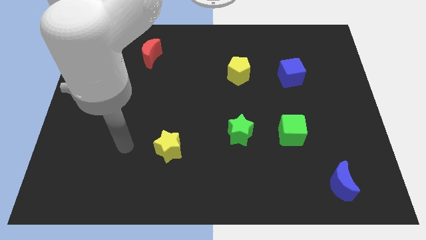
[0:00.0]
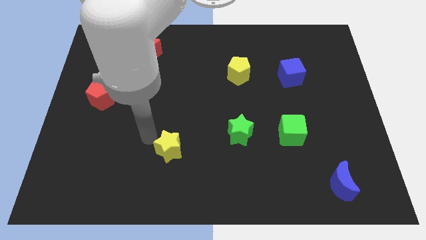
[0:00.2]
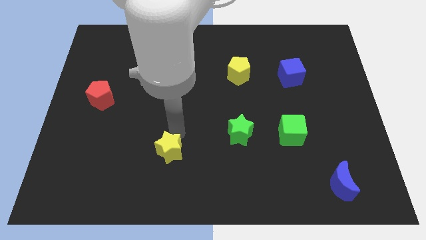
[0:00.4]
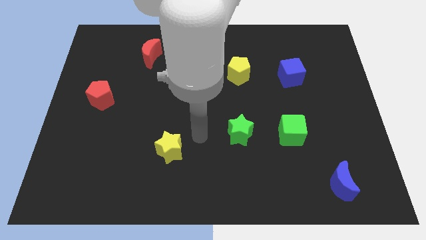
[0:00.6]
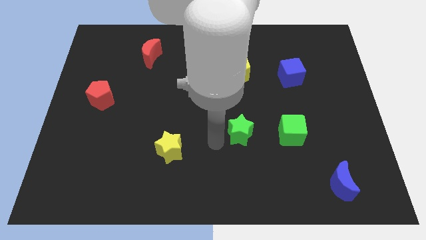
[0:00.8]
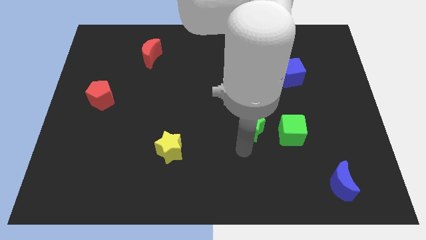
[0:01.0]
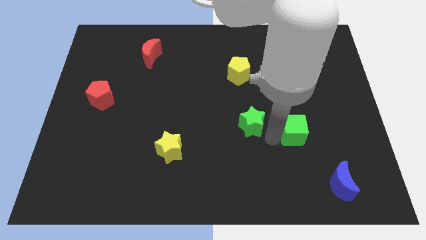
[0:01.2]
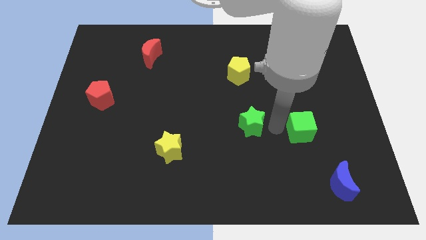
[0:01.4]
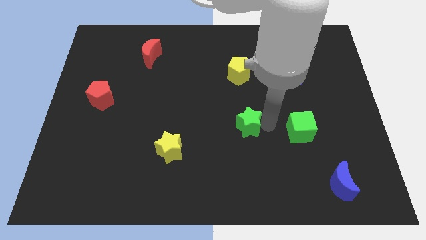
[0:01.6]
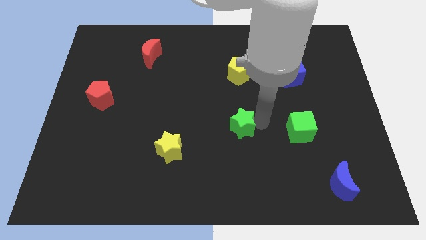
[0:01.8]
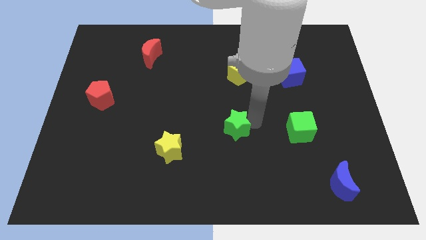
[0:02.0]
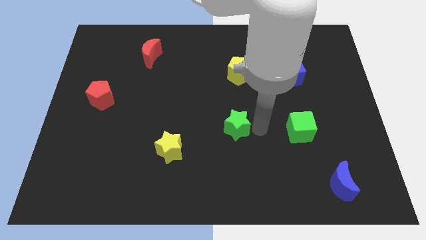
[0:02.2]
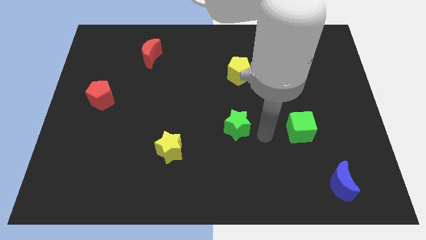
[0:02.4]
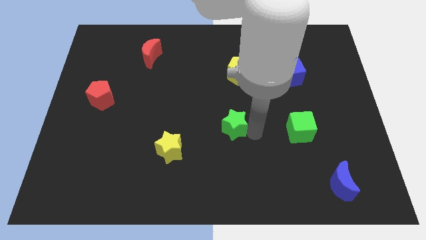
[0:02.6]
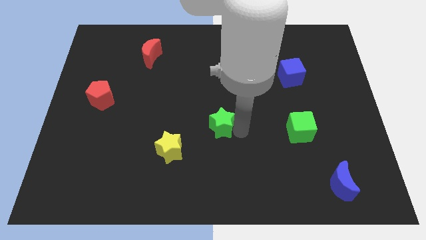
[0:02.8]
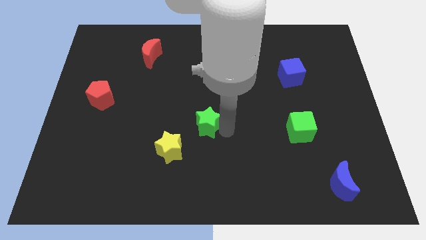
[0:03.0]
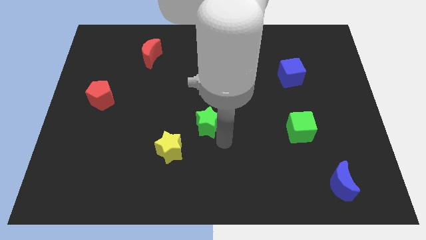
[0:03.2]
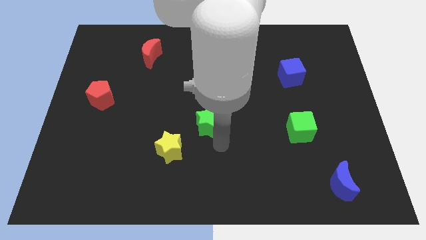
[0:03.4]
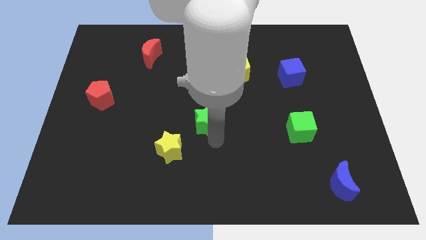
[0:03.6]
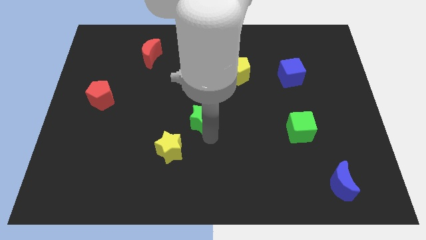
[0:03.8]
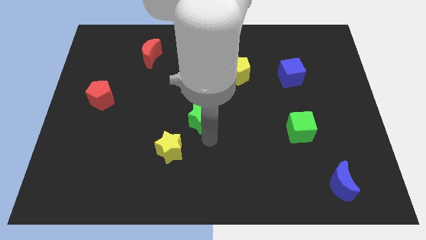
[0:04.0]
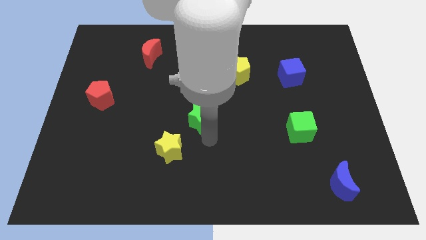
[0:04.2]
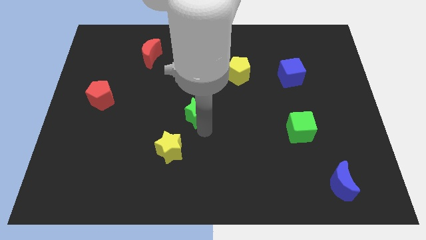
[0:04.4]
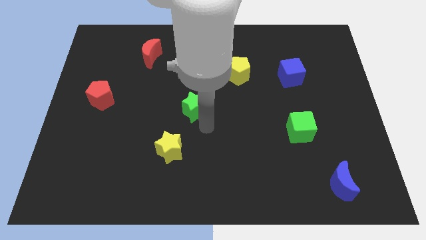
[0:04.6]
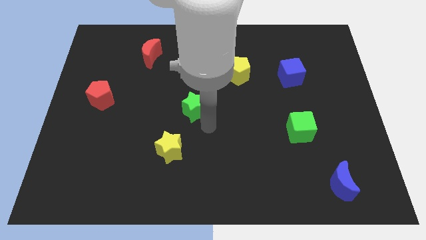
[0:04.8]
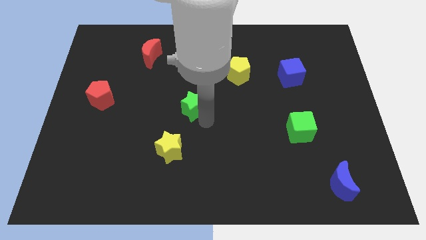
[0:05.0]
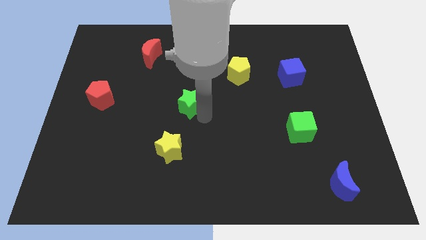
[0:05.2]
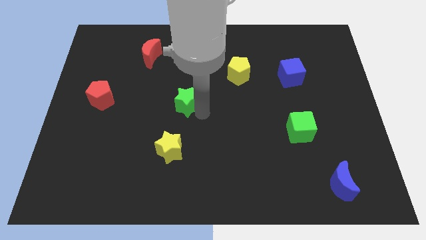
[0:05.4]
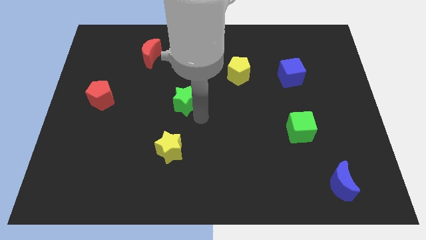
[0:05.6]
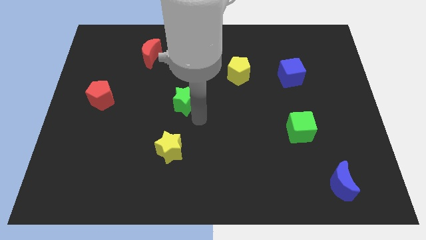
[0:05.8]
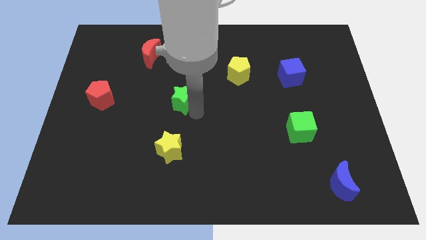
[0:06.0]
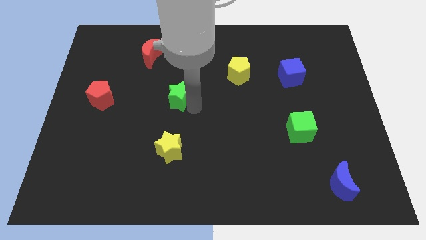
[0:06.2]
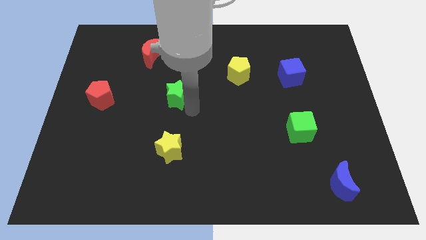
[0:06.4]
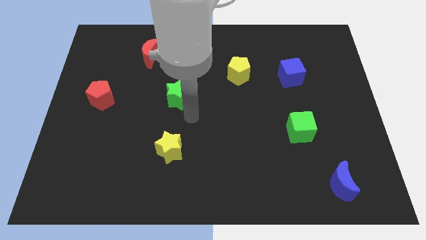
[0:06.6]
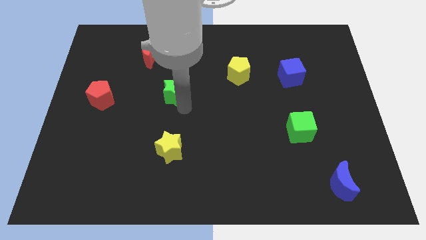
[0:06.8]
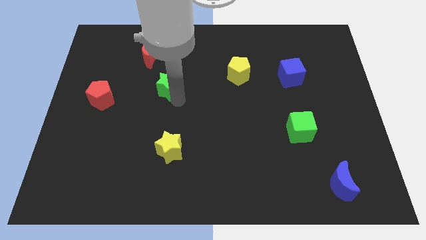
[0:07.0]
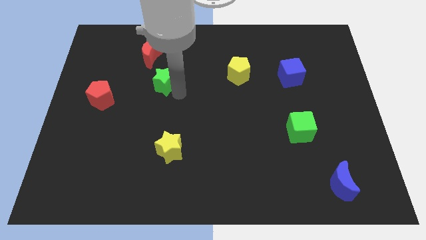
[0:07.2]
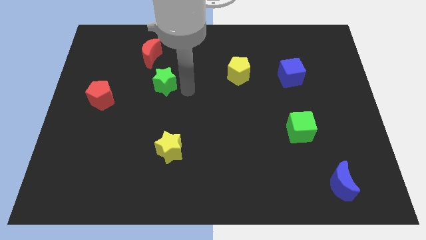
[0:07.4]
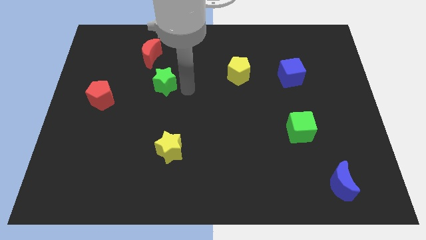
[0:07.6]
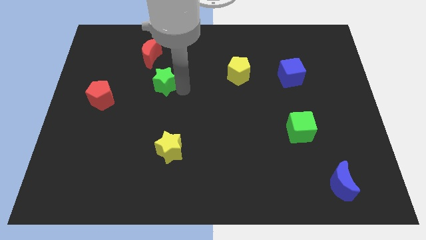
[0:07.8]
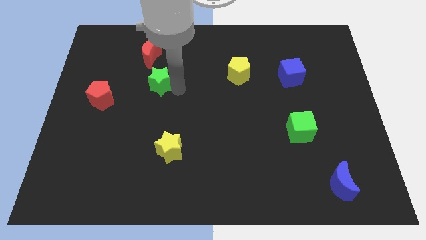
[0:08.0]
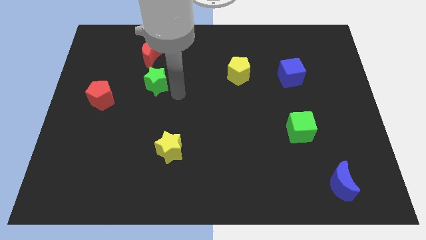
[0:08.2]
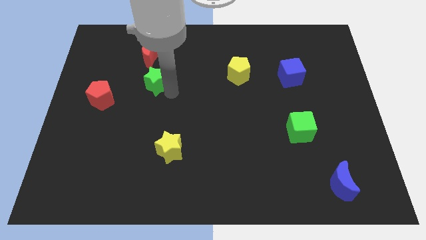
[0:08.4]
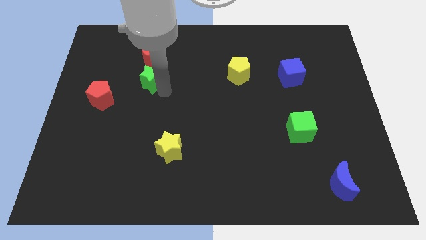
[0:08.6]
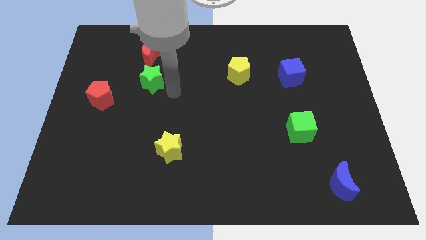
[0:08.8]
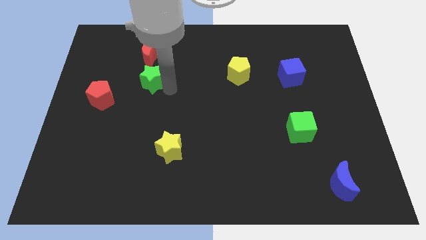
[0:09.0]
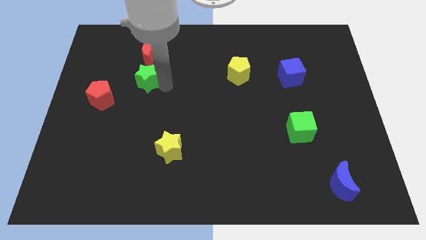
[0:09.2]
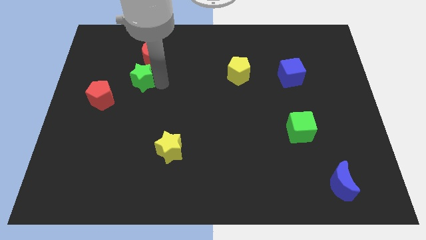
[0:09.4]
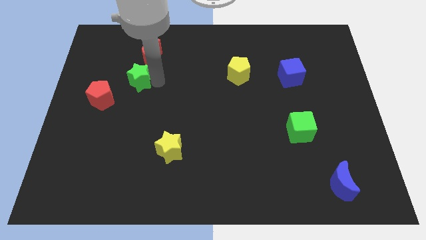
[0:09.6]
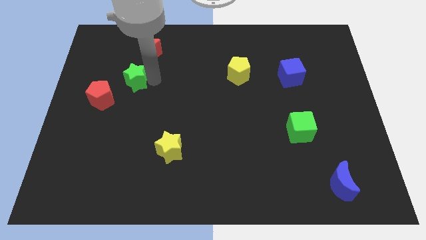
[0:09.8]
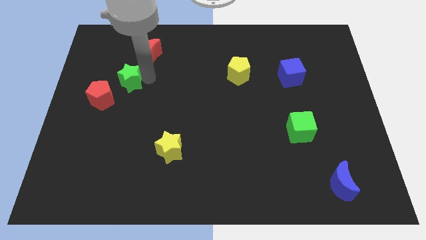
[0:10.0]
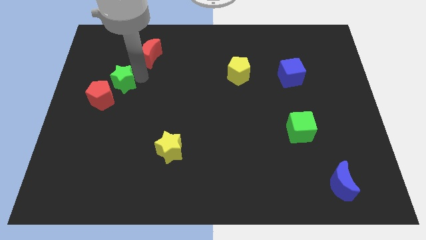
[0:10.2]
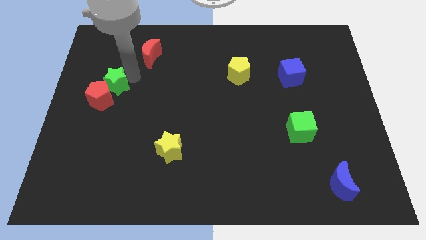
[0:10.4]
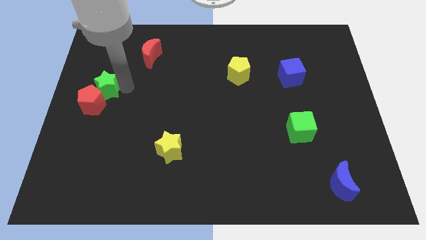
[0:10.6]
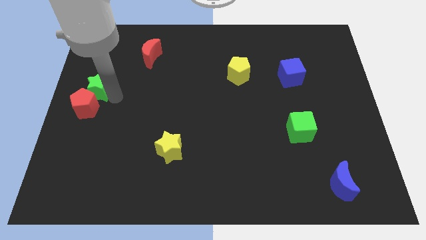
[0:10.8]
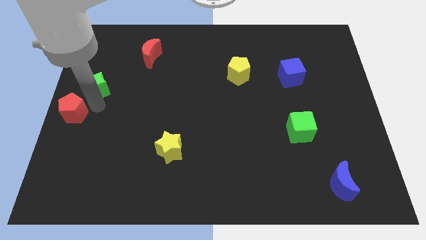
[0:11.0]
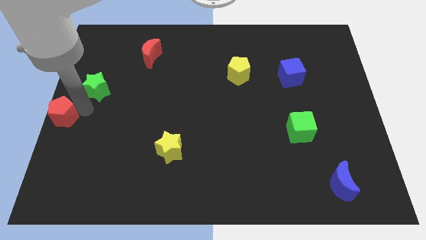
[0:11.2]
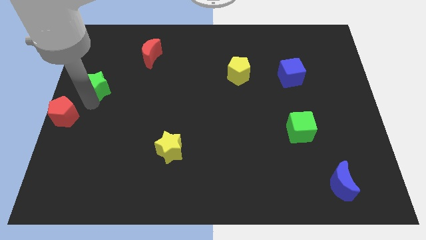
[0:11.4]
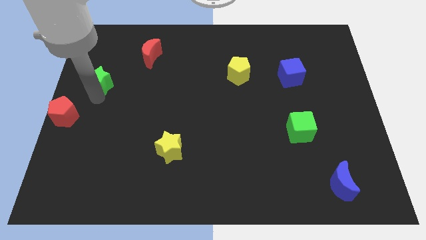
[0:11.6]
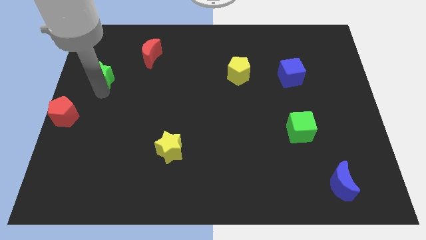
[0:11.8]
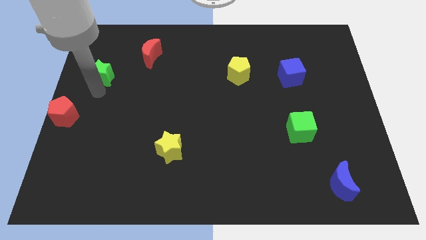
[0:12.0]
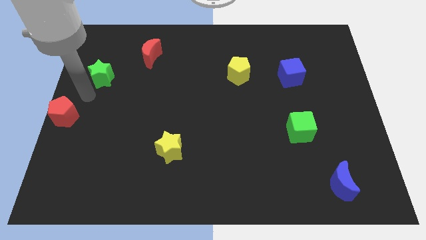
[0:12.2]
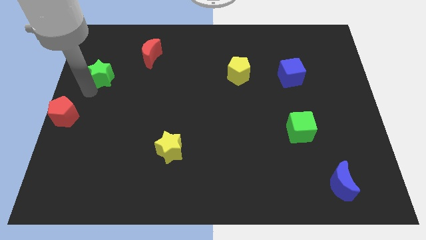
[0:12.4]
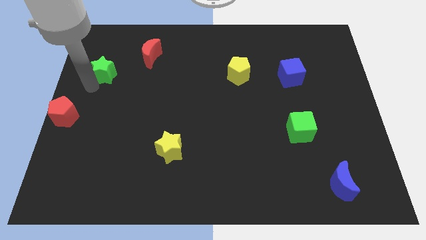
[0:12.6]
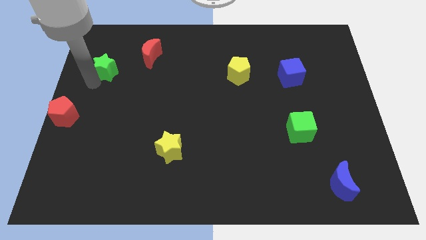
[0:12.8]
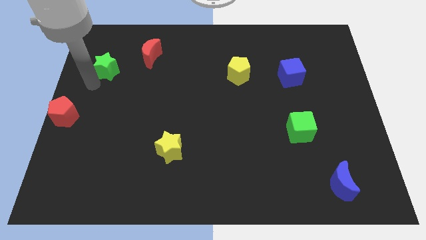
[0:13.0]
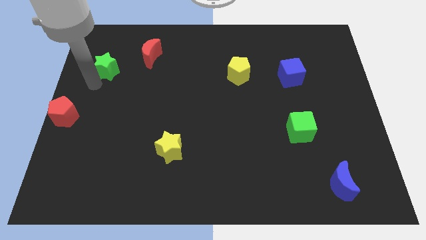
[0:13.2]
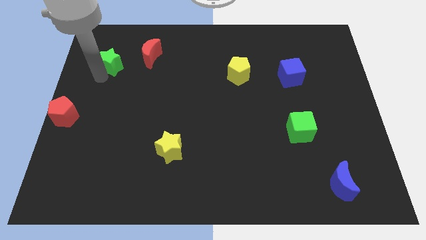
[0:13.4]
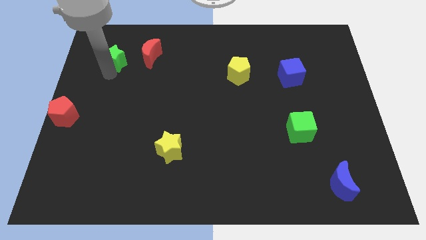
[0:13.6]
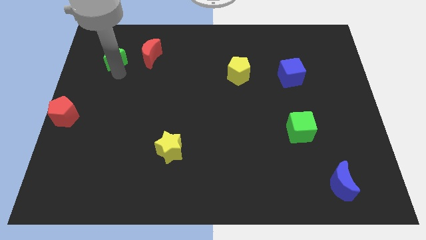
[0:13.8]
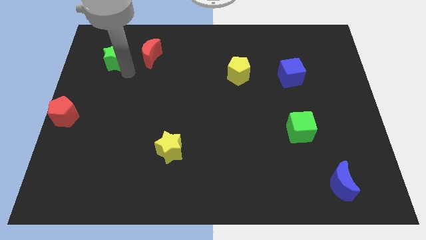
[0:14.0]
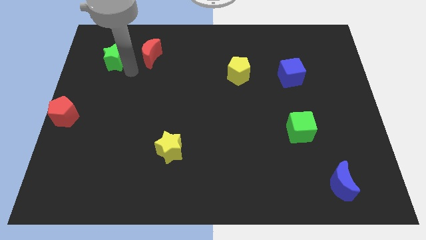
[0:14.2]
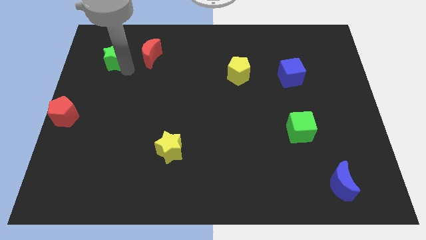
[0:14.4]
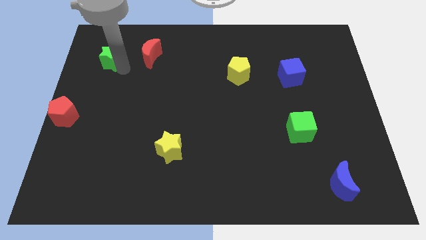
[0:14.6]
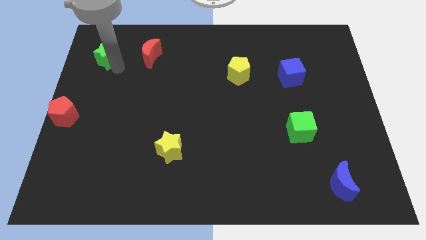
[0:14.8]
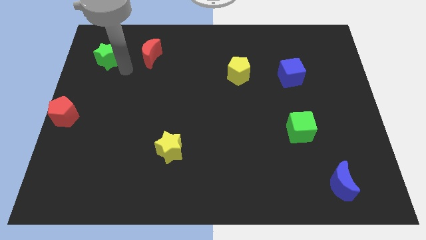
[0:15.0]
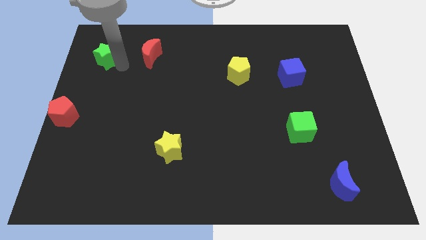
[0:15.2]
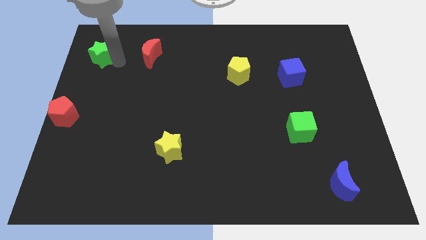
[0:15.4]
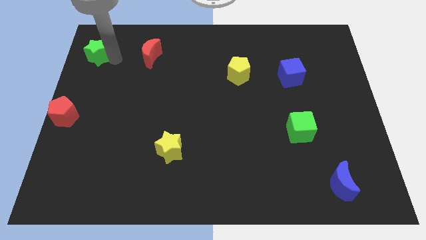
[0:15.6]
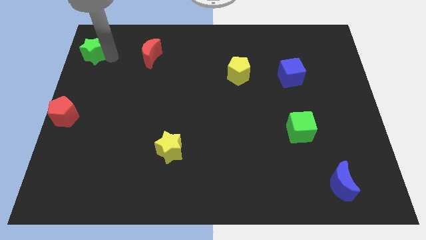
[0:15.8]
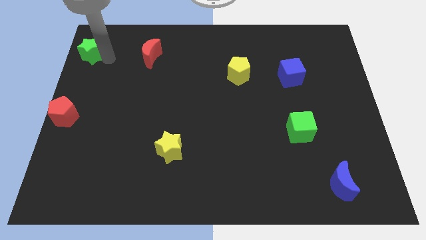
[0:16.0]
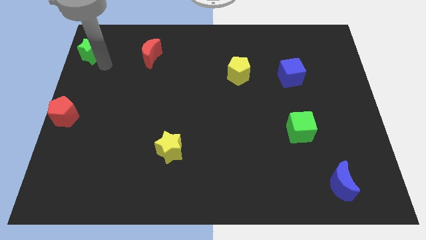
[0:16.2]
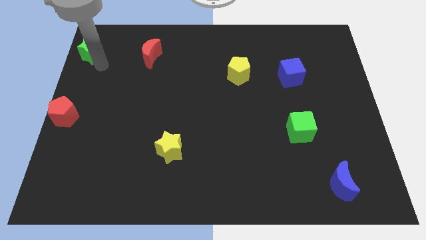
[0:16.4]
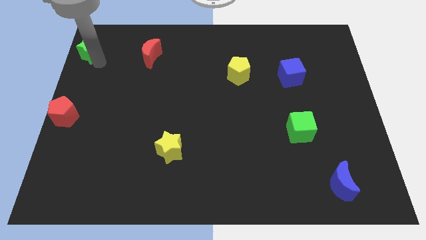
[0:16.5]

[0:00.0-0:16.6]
slide the green star to the upper left corner
